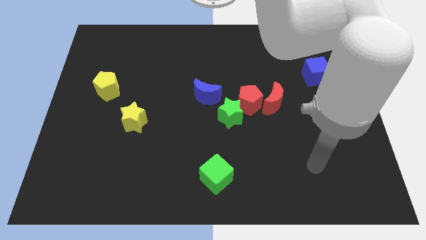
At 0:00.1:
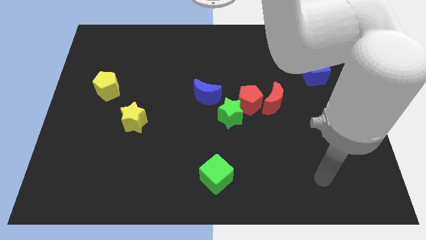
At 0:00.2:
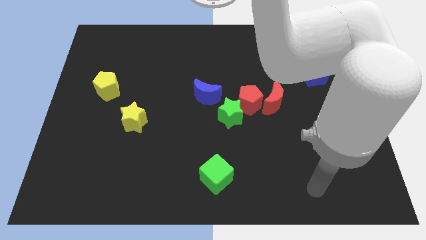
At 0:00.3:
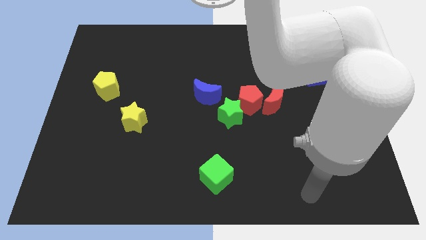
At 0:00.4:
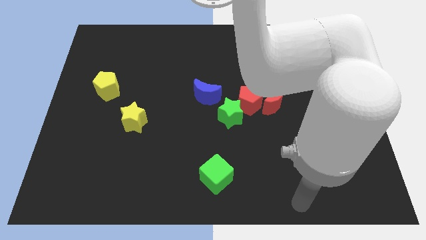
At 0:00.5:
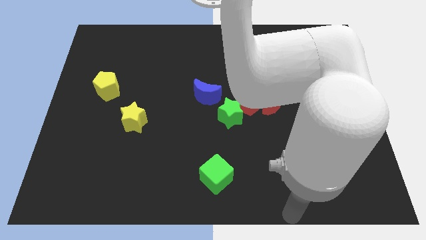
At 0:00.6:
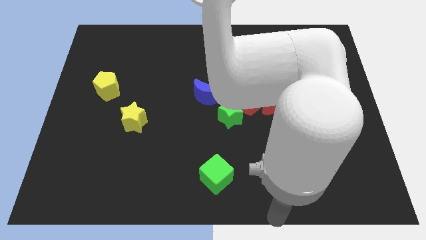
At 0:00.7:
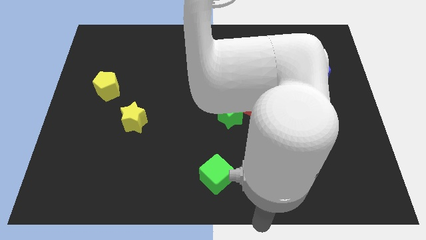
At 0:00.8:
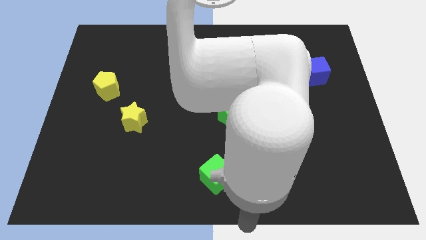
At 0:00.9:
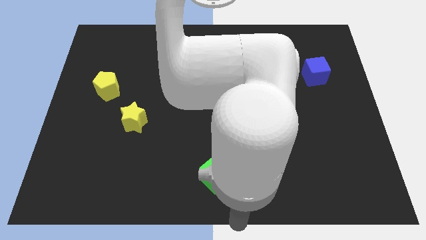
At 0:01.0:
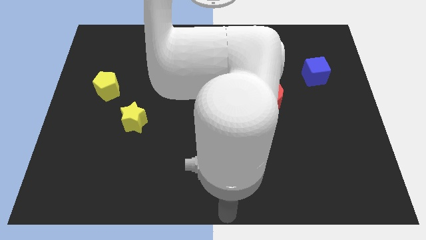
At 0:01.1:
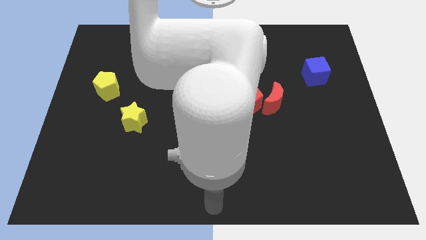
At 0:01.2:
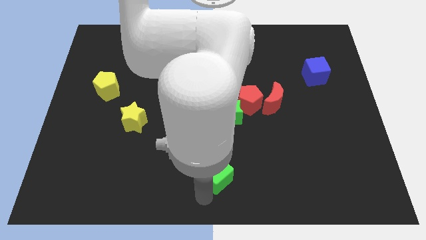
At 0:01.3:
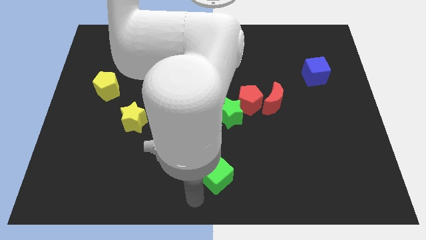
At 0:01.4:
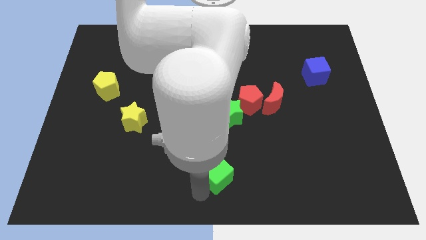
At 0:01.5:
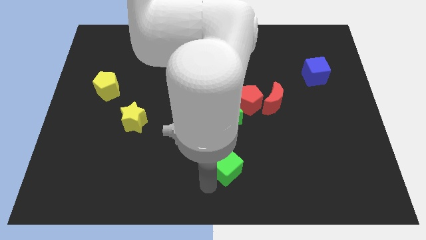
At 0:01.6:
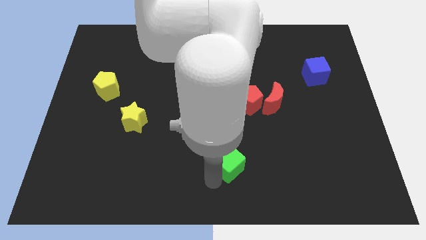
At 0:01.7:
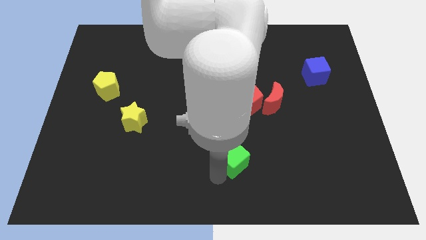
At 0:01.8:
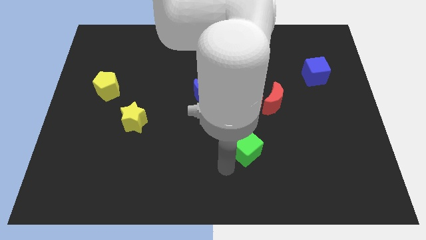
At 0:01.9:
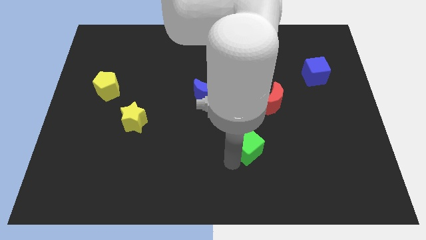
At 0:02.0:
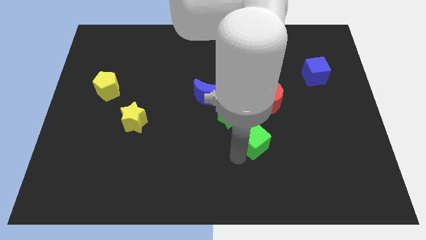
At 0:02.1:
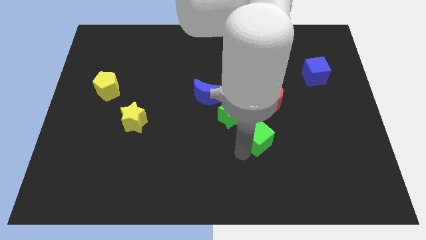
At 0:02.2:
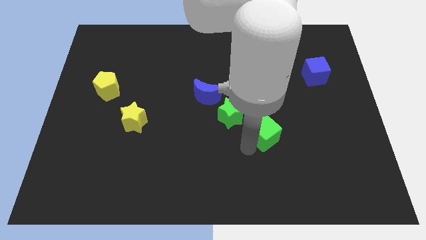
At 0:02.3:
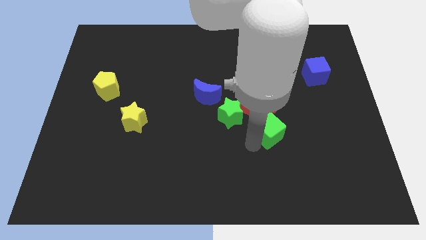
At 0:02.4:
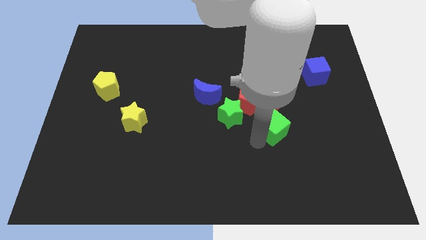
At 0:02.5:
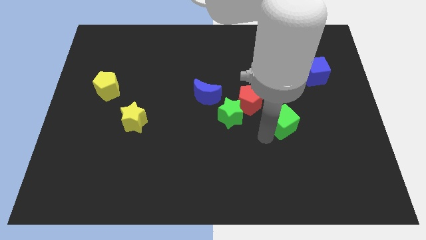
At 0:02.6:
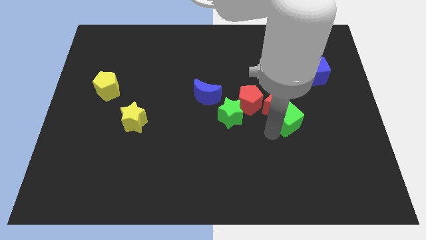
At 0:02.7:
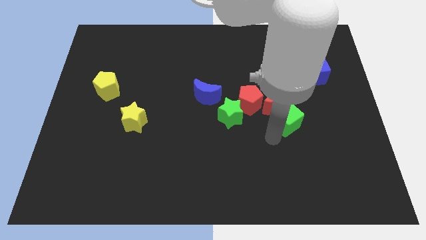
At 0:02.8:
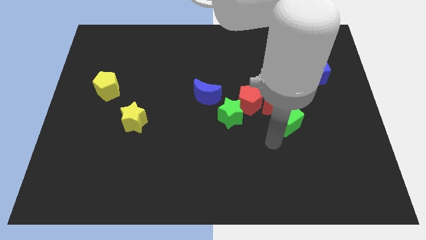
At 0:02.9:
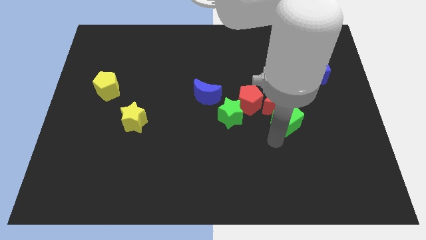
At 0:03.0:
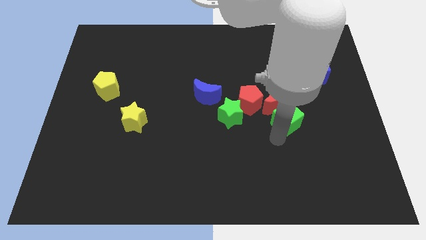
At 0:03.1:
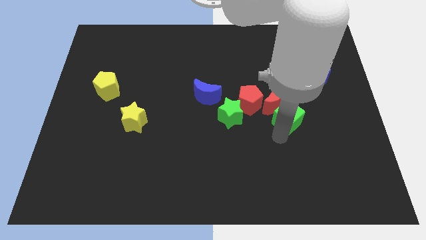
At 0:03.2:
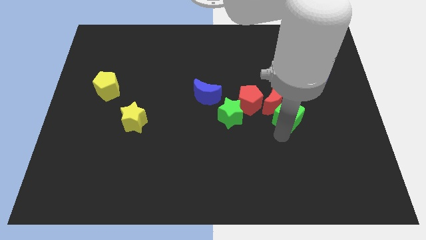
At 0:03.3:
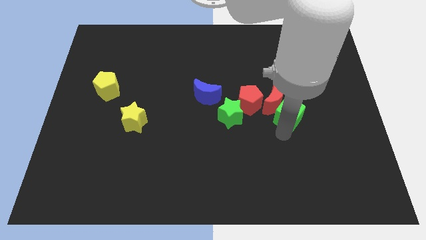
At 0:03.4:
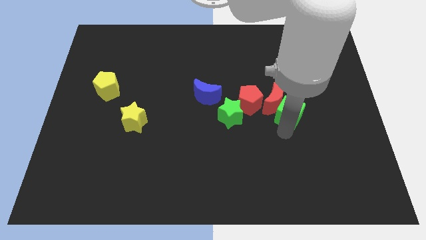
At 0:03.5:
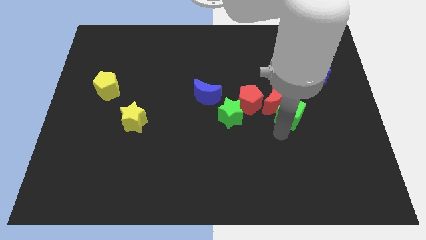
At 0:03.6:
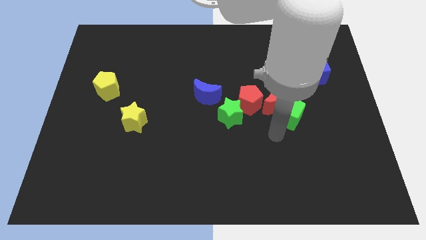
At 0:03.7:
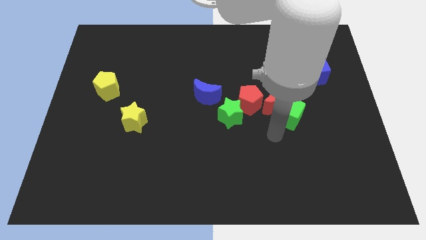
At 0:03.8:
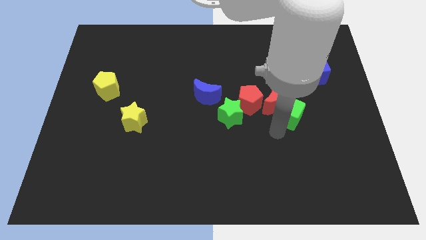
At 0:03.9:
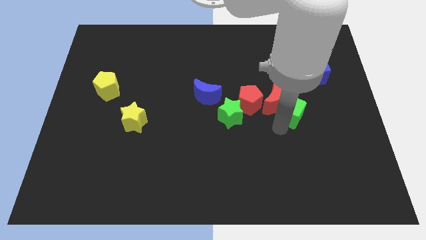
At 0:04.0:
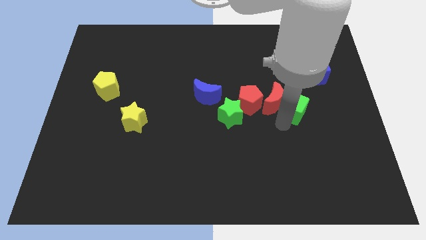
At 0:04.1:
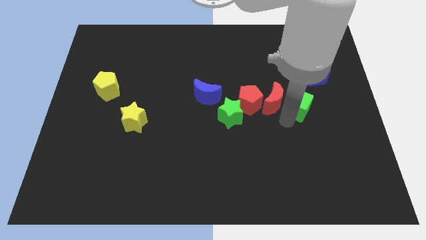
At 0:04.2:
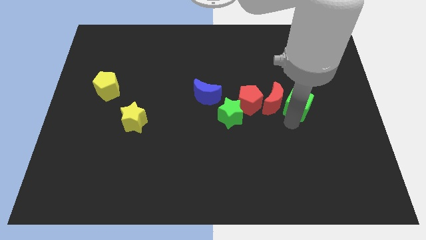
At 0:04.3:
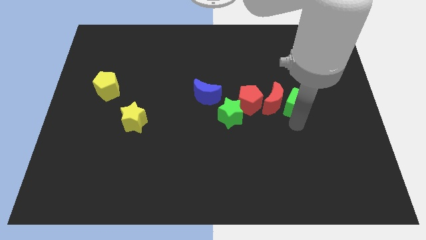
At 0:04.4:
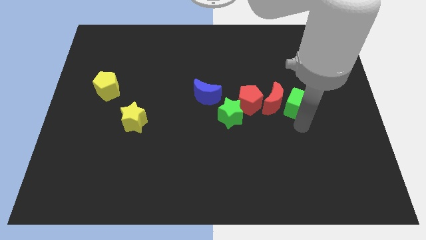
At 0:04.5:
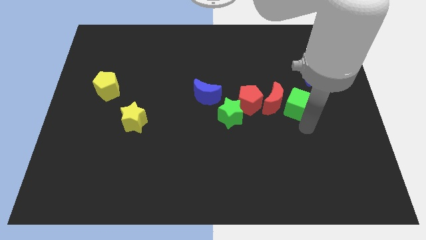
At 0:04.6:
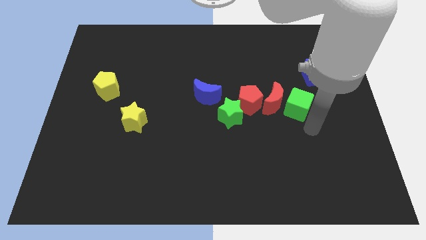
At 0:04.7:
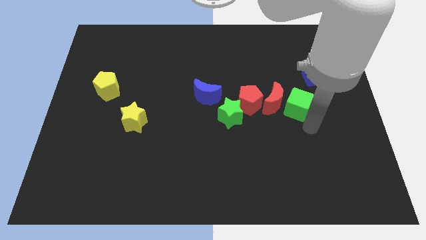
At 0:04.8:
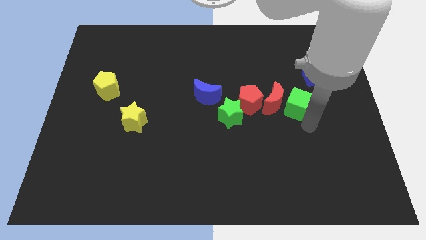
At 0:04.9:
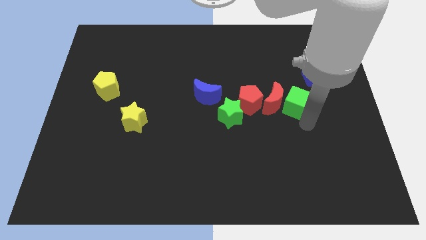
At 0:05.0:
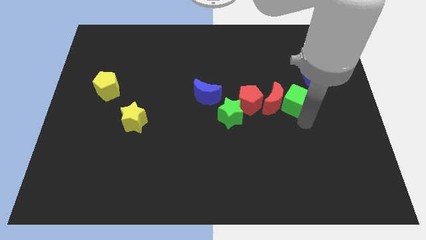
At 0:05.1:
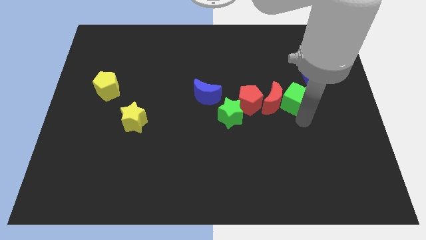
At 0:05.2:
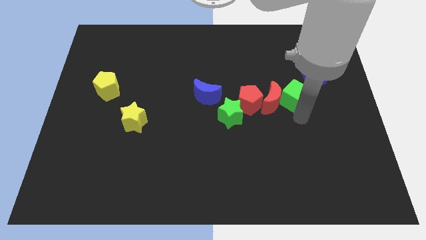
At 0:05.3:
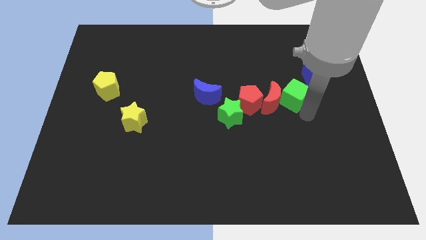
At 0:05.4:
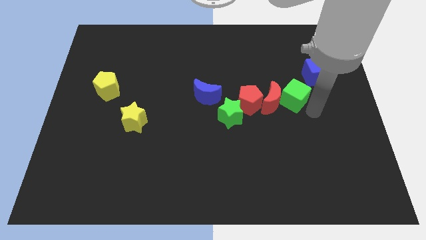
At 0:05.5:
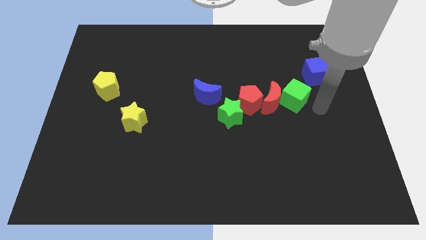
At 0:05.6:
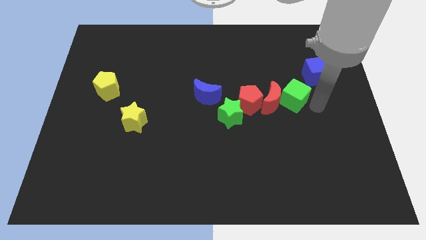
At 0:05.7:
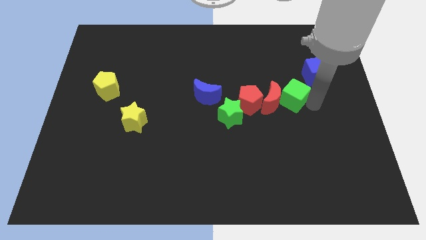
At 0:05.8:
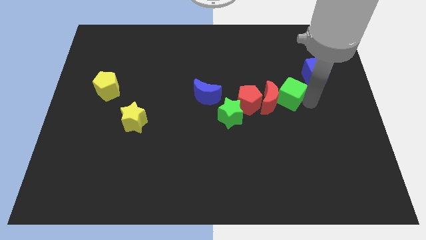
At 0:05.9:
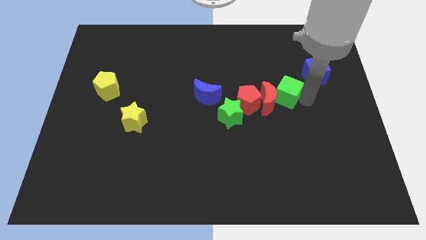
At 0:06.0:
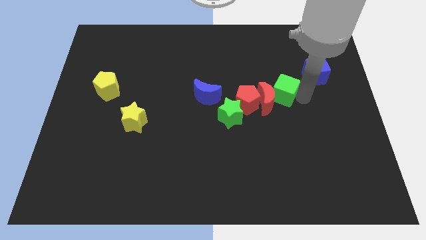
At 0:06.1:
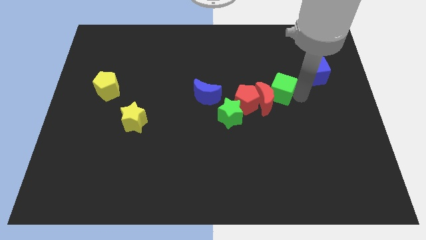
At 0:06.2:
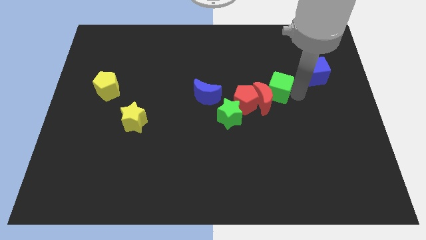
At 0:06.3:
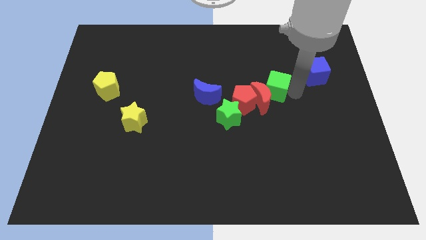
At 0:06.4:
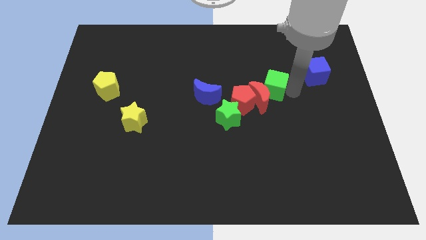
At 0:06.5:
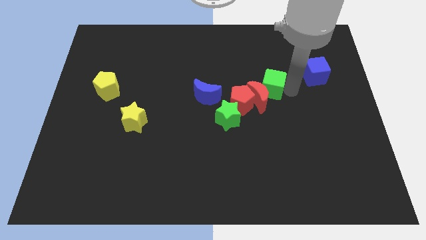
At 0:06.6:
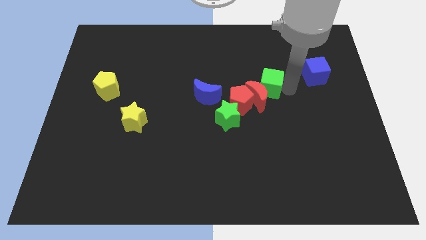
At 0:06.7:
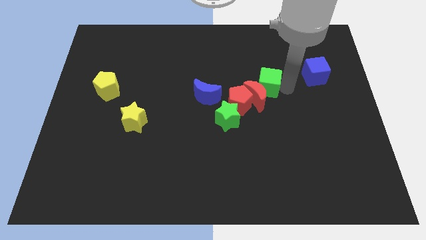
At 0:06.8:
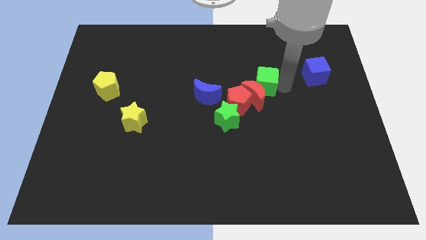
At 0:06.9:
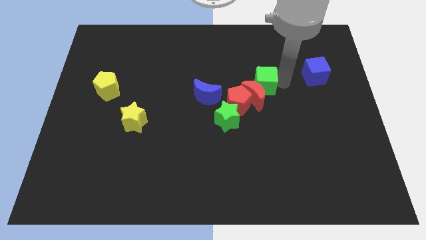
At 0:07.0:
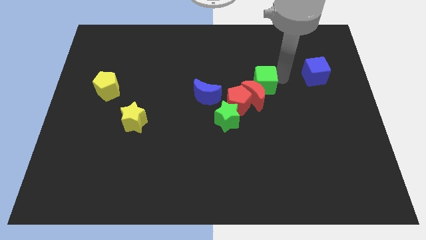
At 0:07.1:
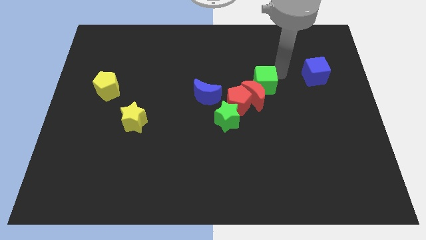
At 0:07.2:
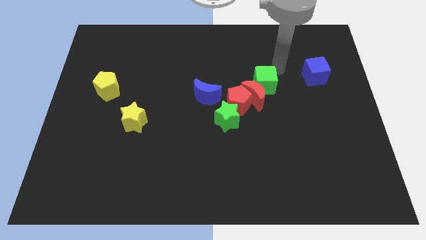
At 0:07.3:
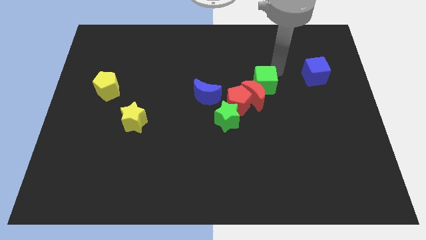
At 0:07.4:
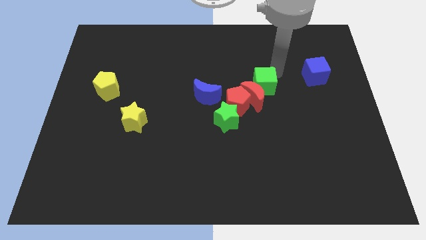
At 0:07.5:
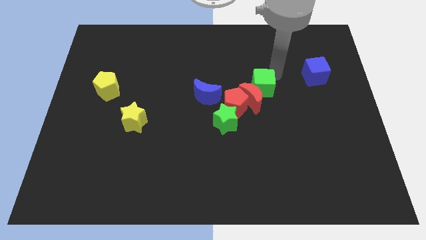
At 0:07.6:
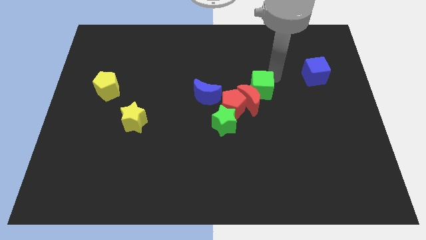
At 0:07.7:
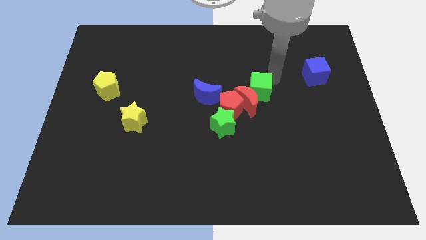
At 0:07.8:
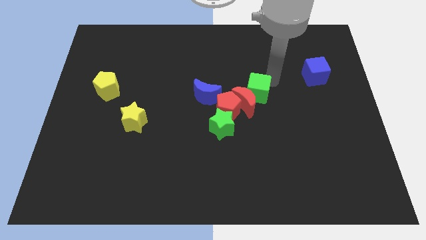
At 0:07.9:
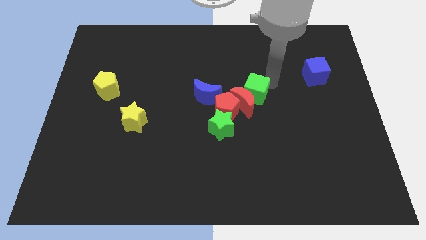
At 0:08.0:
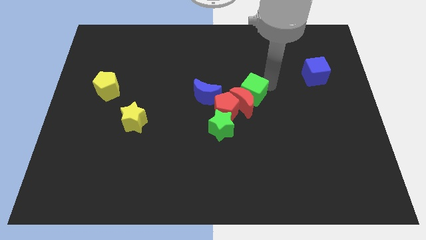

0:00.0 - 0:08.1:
slide the green cube diagonally up and to the right of the green star
